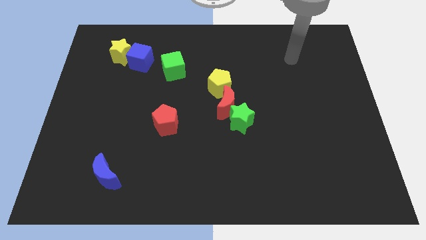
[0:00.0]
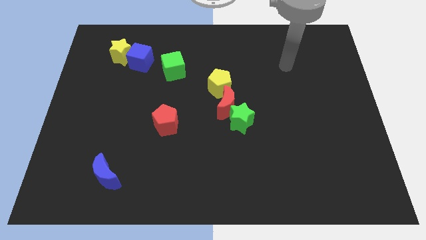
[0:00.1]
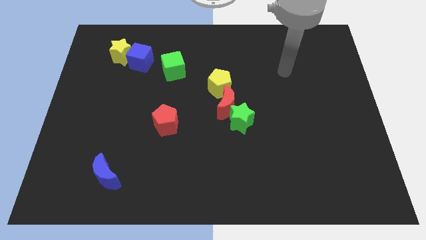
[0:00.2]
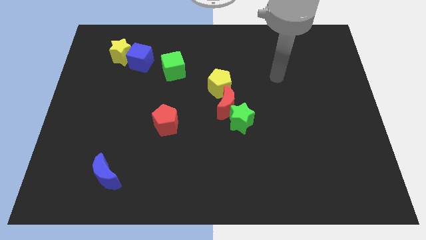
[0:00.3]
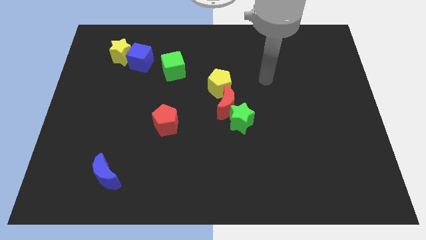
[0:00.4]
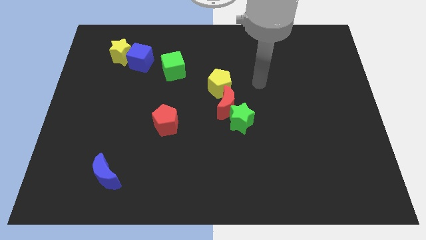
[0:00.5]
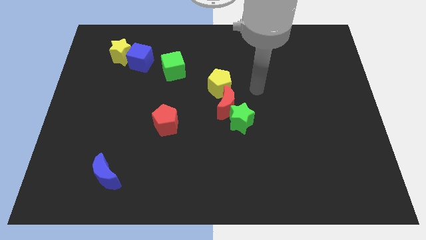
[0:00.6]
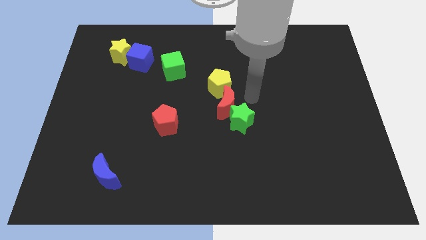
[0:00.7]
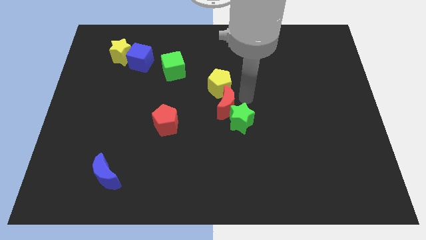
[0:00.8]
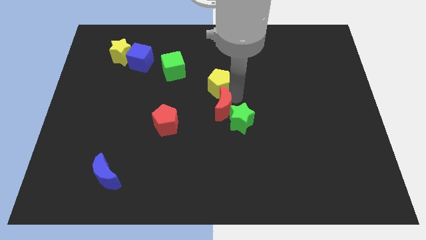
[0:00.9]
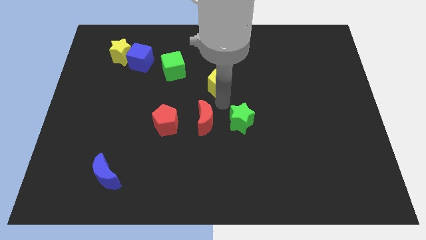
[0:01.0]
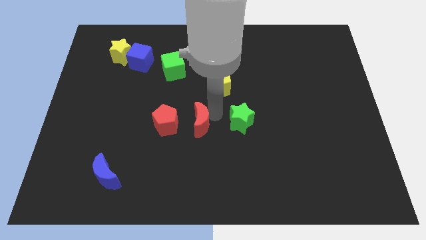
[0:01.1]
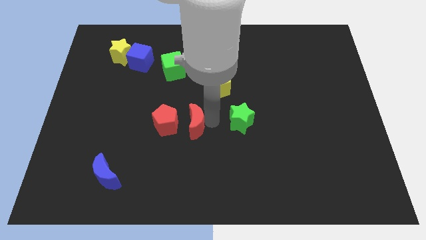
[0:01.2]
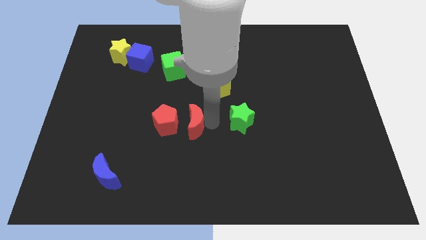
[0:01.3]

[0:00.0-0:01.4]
pull the green star apart from the red moon

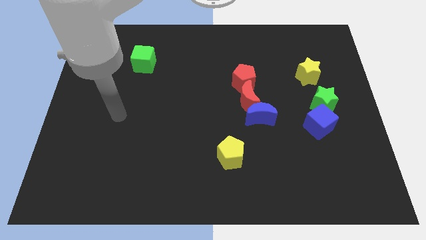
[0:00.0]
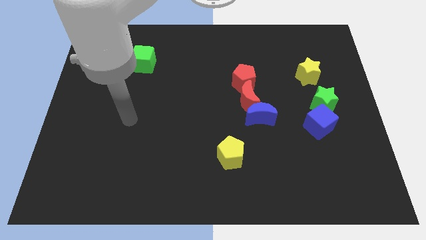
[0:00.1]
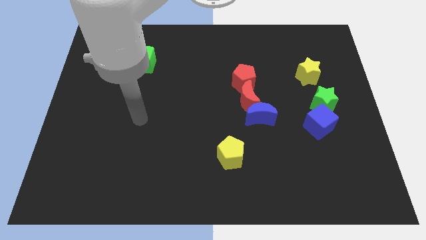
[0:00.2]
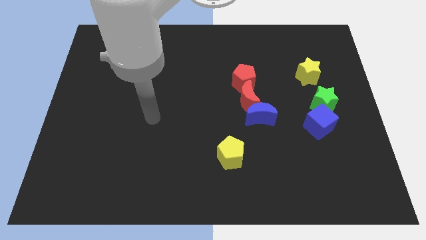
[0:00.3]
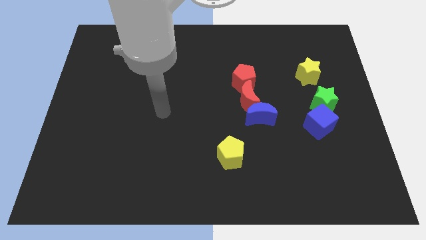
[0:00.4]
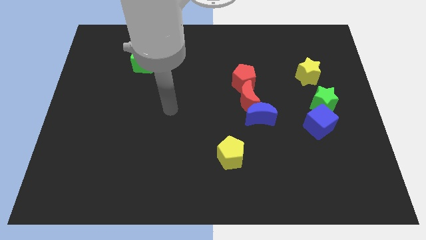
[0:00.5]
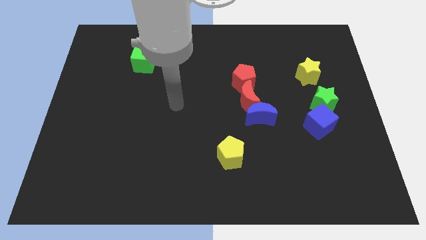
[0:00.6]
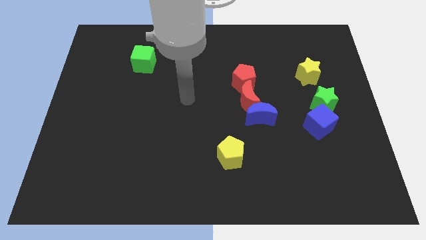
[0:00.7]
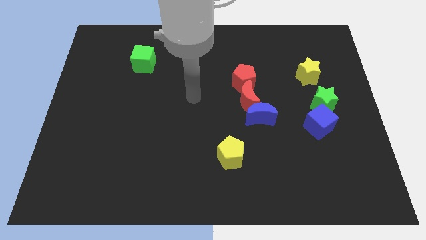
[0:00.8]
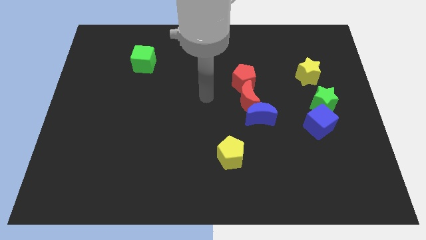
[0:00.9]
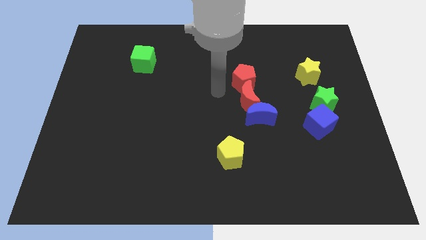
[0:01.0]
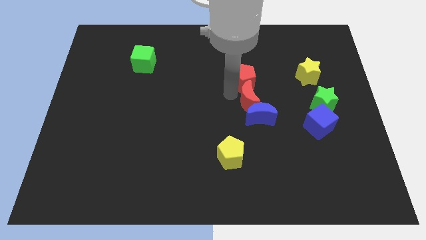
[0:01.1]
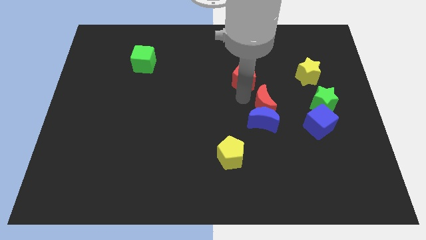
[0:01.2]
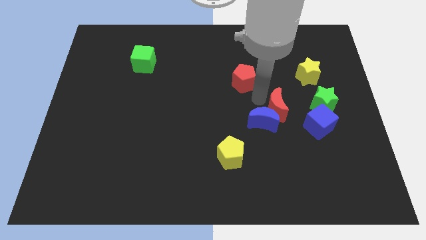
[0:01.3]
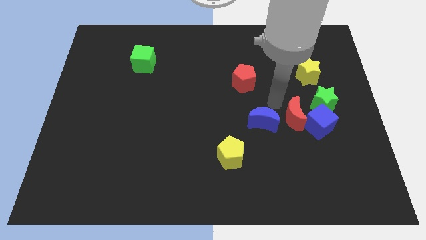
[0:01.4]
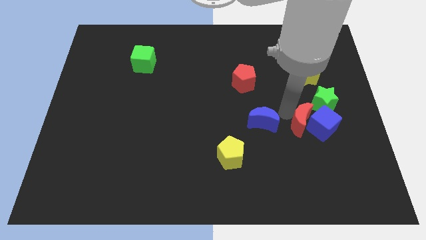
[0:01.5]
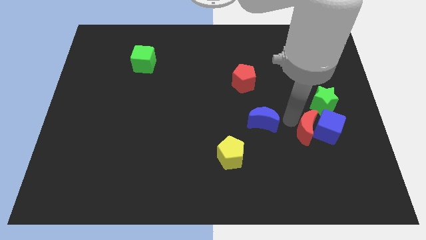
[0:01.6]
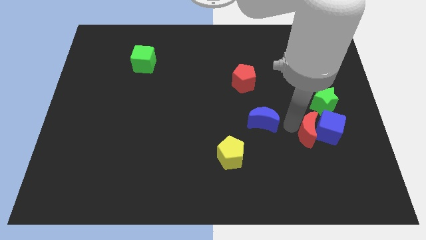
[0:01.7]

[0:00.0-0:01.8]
separate the blue moon from the red moon

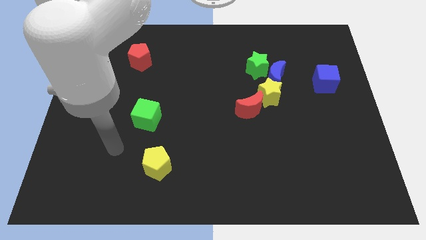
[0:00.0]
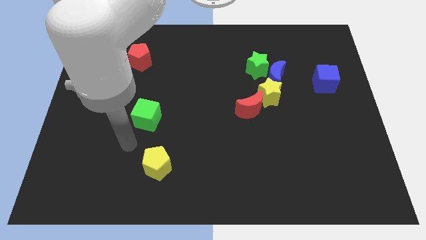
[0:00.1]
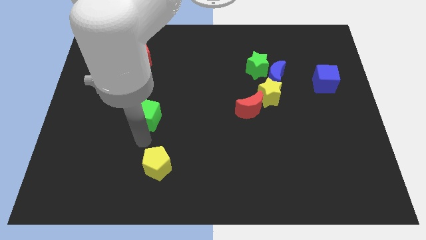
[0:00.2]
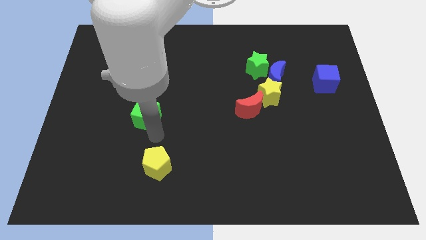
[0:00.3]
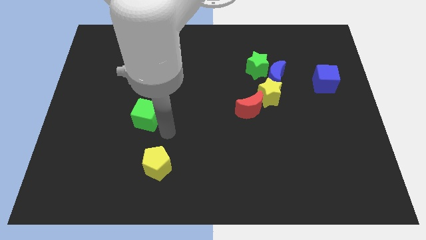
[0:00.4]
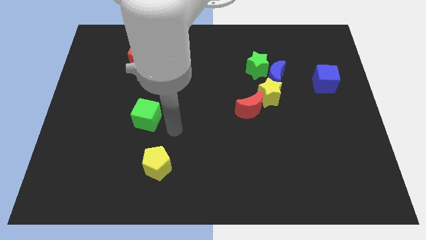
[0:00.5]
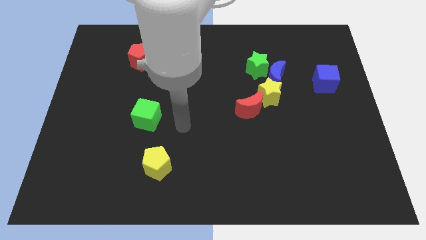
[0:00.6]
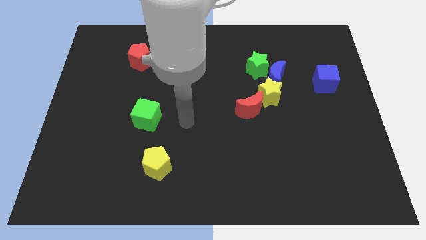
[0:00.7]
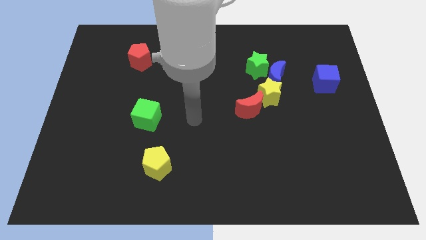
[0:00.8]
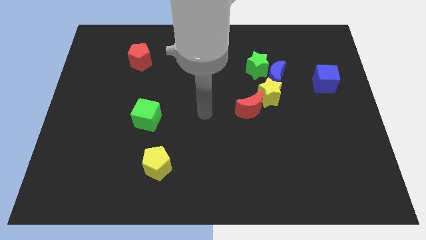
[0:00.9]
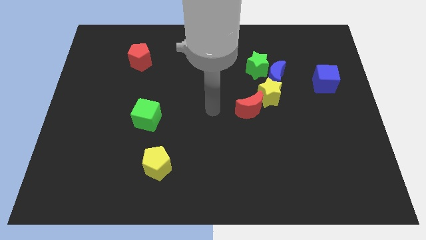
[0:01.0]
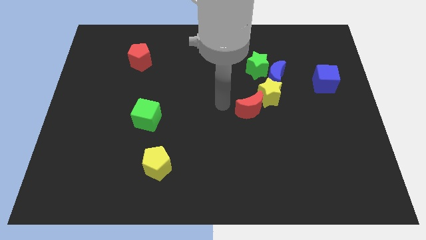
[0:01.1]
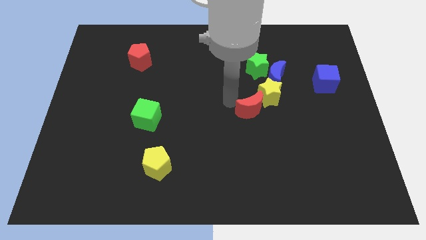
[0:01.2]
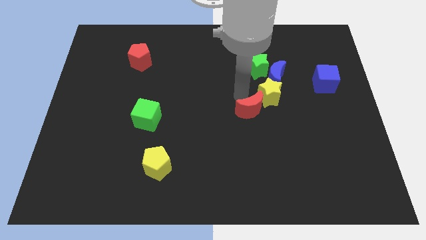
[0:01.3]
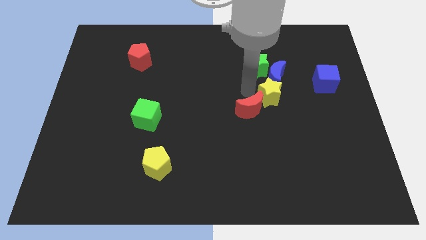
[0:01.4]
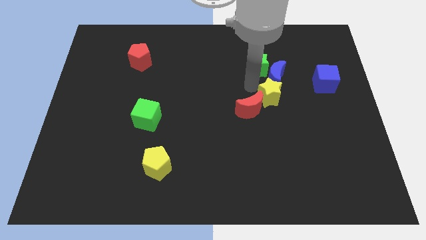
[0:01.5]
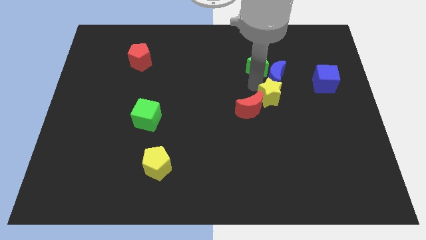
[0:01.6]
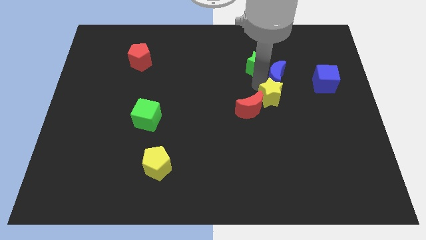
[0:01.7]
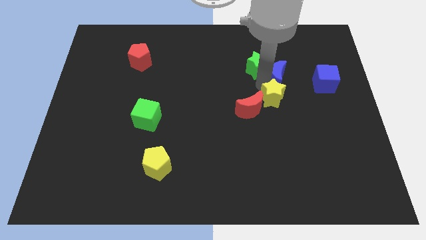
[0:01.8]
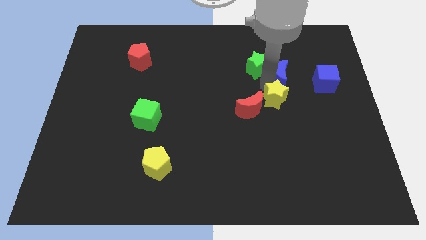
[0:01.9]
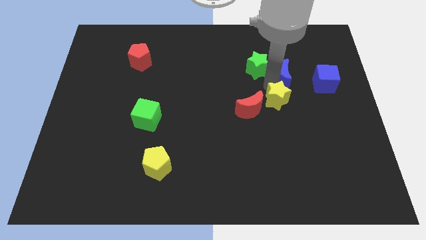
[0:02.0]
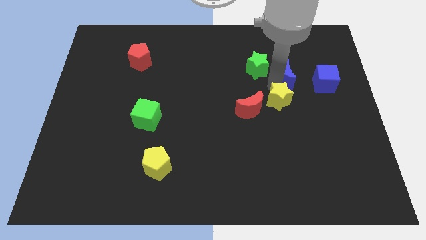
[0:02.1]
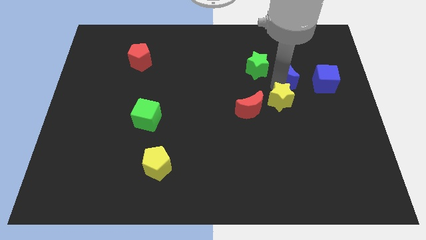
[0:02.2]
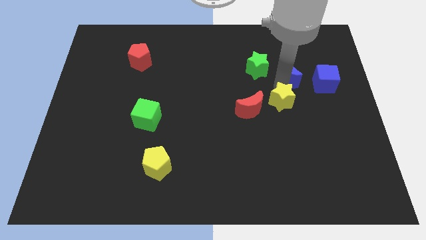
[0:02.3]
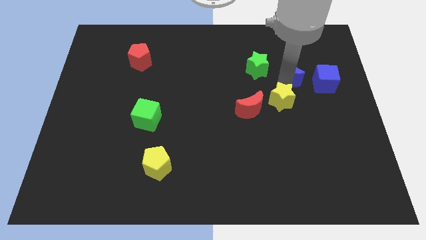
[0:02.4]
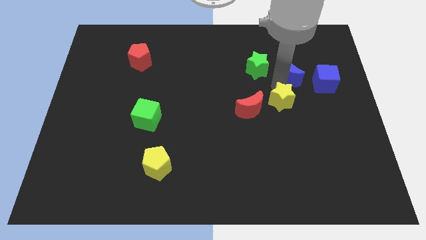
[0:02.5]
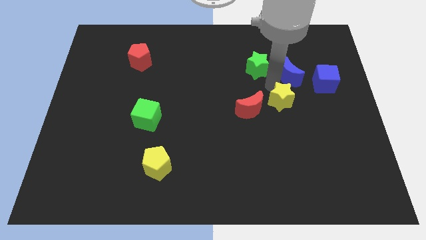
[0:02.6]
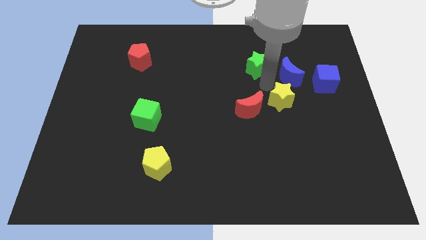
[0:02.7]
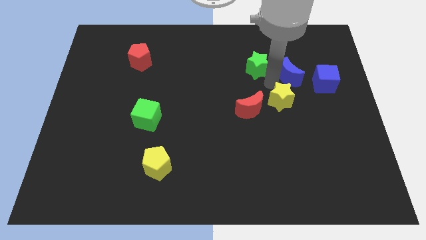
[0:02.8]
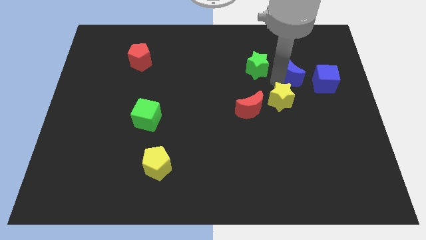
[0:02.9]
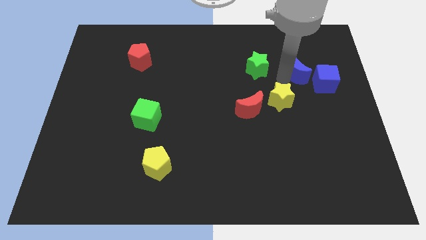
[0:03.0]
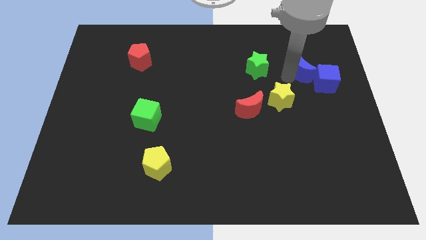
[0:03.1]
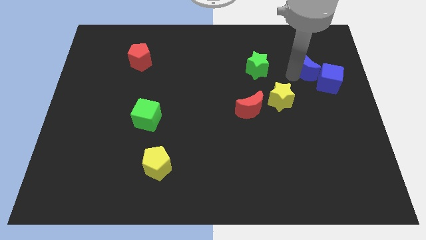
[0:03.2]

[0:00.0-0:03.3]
move the blue moon away from the green star and yellow star

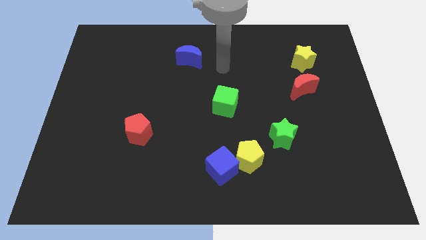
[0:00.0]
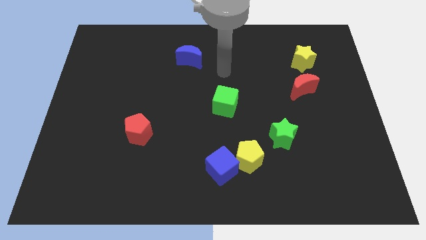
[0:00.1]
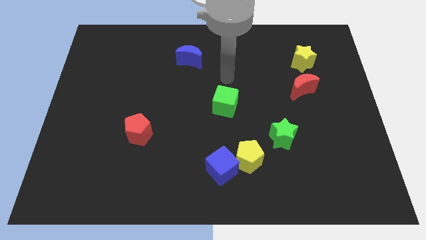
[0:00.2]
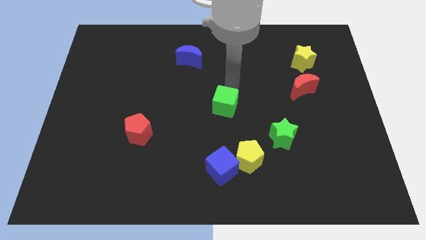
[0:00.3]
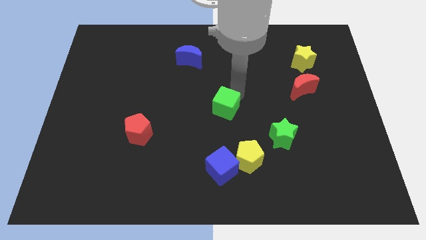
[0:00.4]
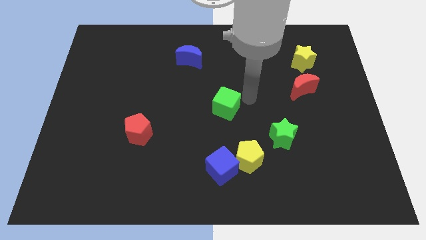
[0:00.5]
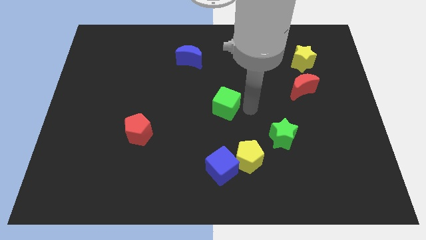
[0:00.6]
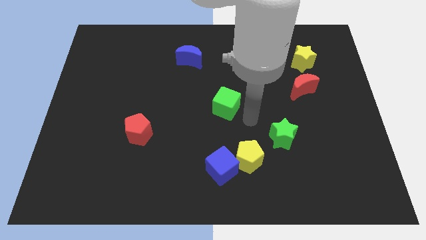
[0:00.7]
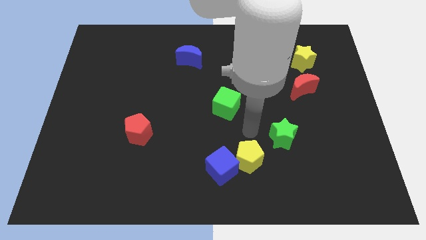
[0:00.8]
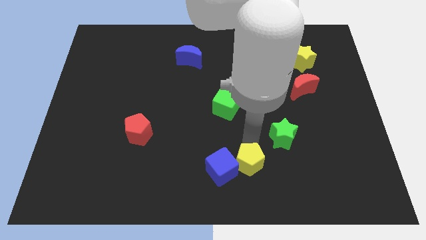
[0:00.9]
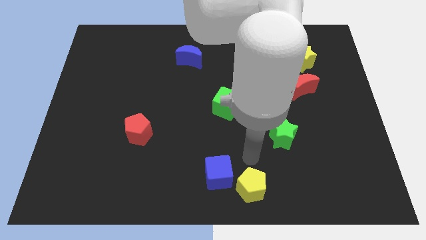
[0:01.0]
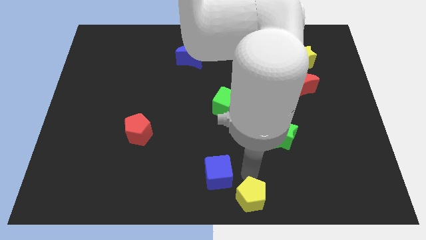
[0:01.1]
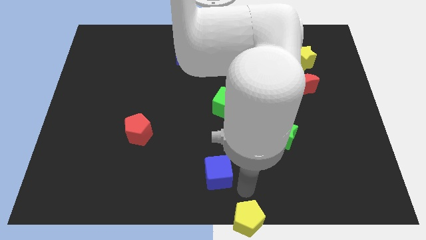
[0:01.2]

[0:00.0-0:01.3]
pull the blue cube apart from the yellow pentagon

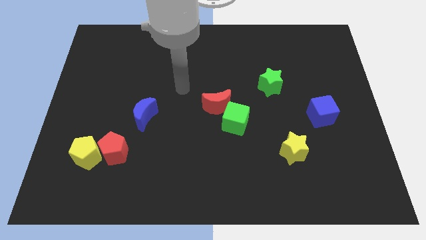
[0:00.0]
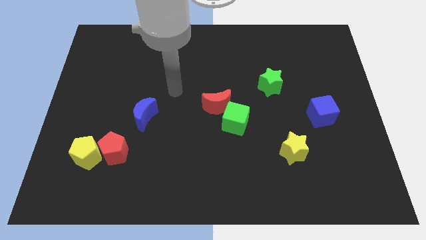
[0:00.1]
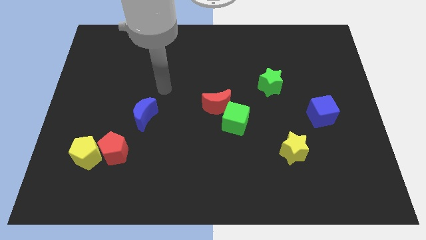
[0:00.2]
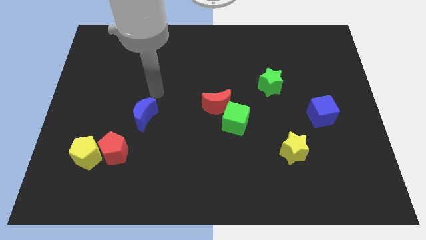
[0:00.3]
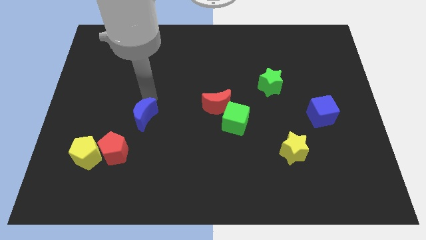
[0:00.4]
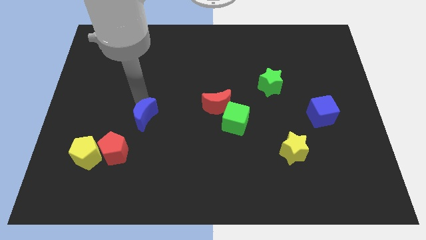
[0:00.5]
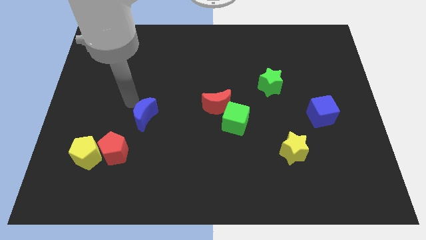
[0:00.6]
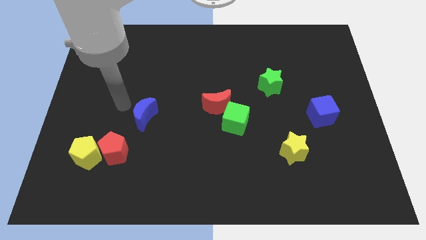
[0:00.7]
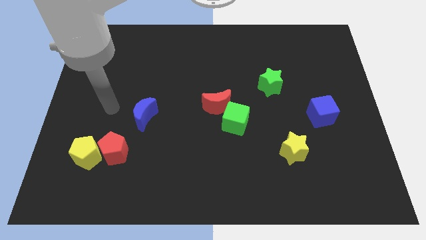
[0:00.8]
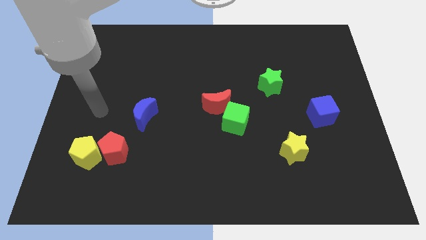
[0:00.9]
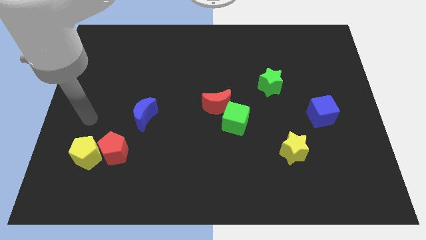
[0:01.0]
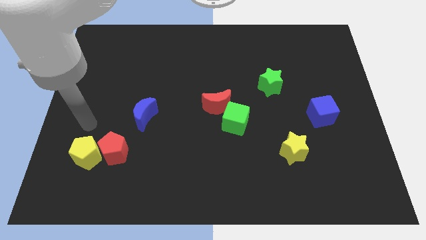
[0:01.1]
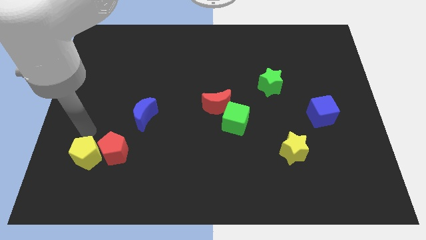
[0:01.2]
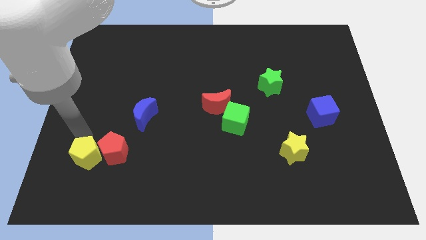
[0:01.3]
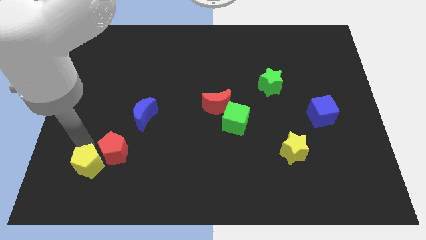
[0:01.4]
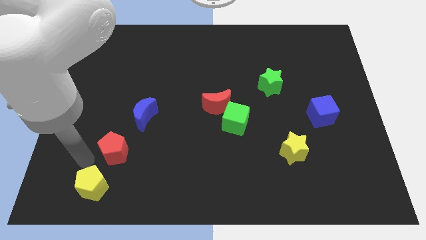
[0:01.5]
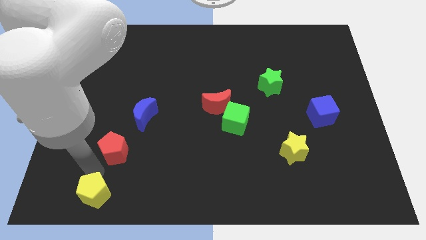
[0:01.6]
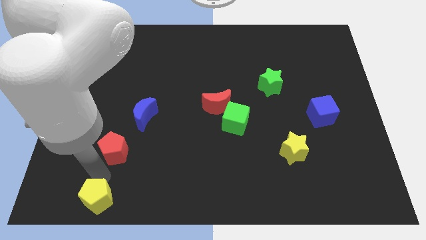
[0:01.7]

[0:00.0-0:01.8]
move the red pentagon away from the yellow pentagon
